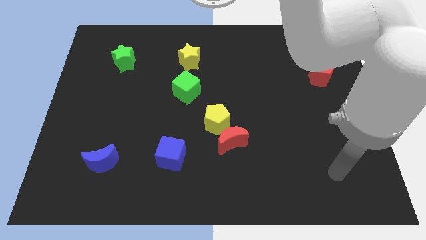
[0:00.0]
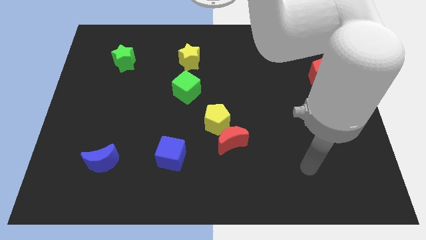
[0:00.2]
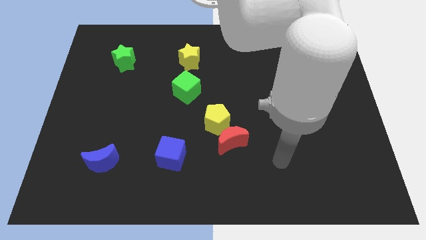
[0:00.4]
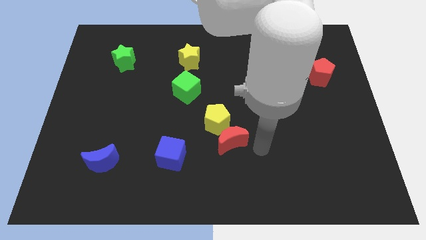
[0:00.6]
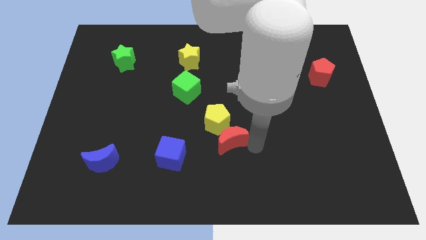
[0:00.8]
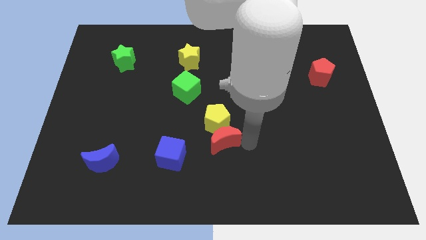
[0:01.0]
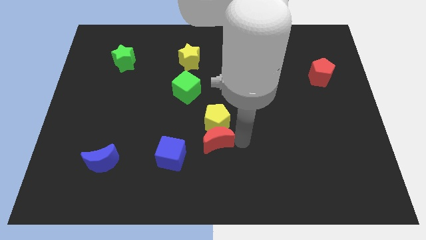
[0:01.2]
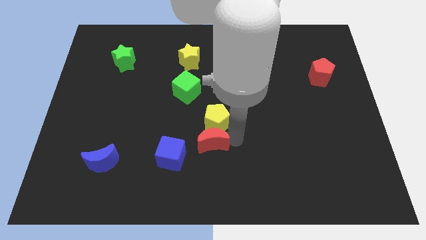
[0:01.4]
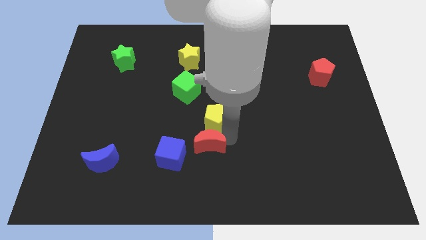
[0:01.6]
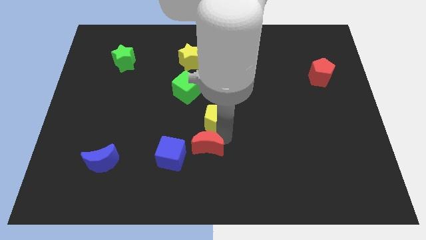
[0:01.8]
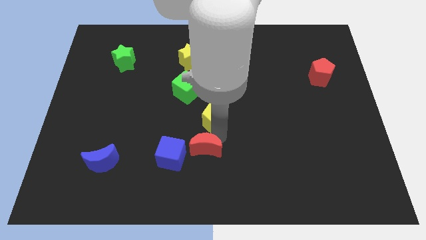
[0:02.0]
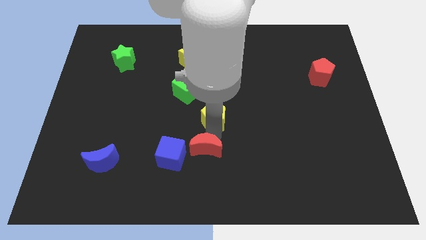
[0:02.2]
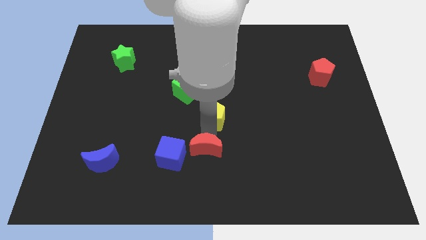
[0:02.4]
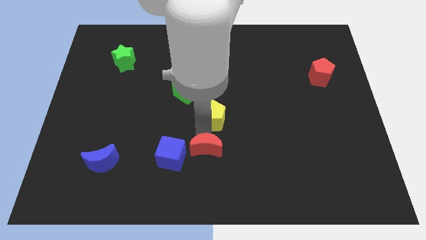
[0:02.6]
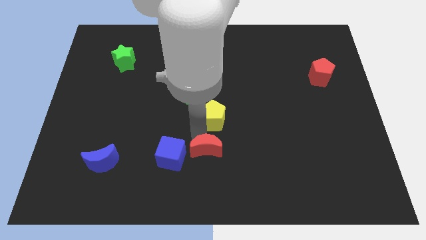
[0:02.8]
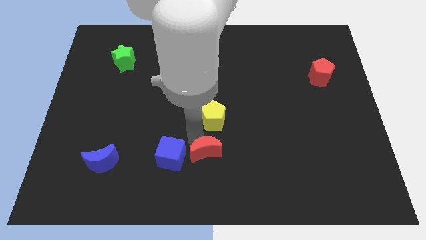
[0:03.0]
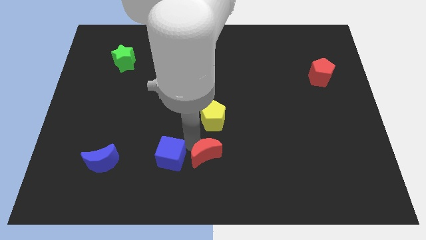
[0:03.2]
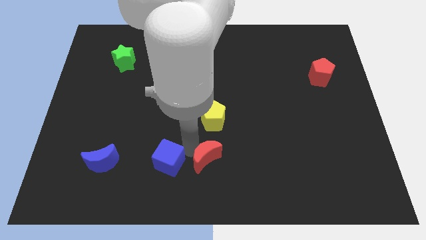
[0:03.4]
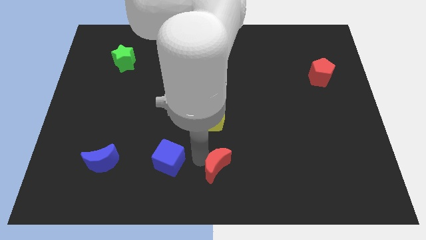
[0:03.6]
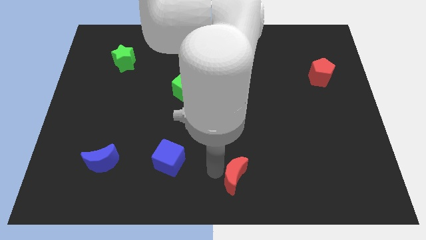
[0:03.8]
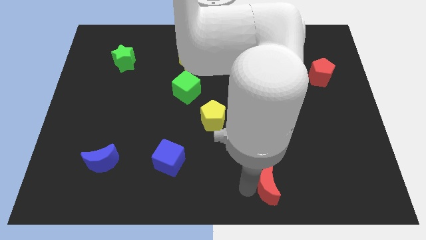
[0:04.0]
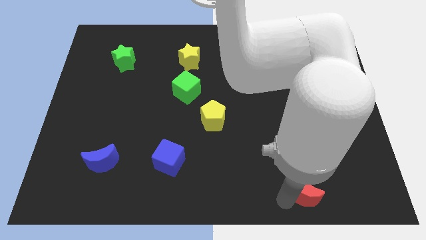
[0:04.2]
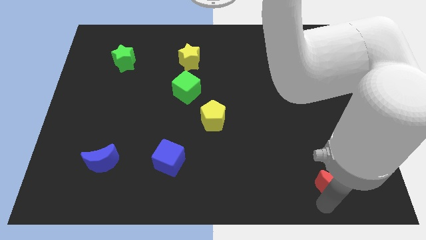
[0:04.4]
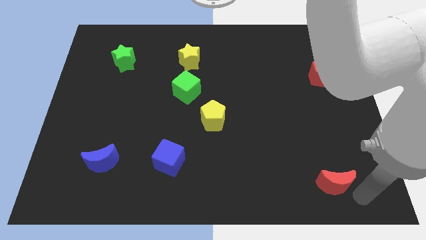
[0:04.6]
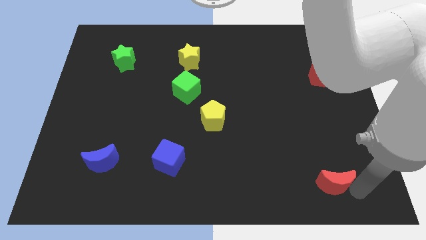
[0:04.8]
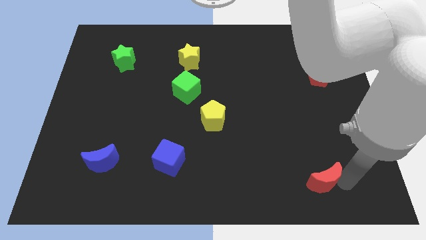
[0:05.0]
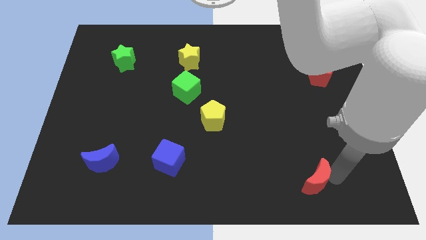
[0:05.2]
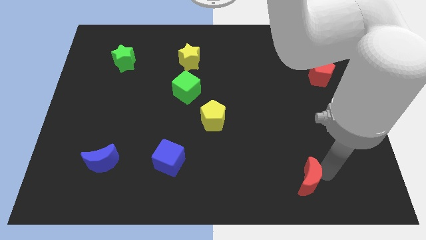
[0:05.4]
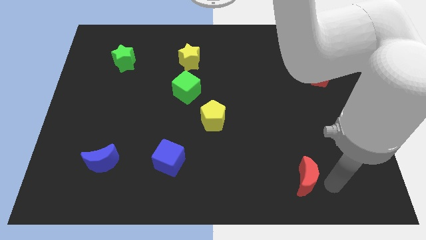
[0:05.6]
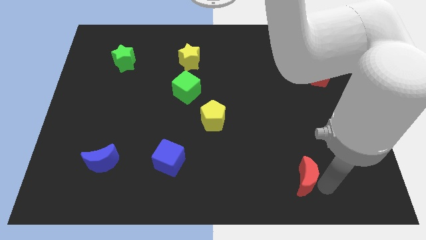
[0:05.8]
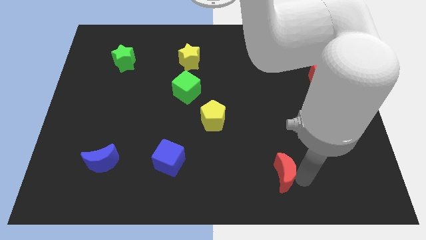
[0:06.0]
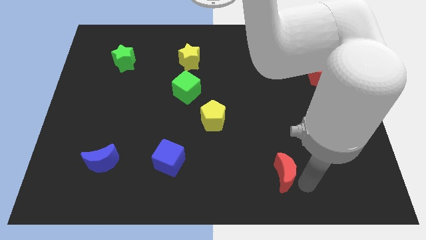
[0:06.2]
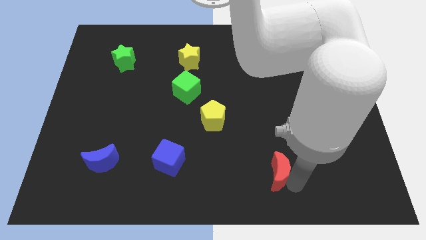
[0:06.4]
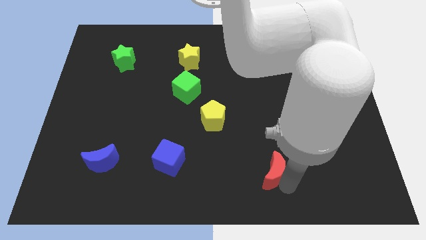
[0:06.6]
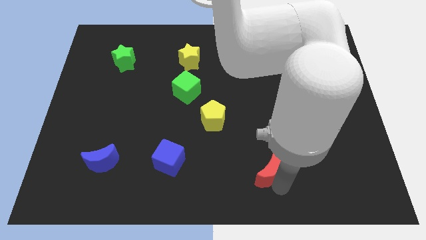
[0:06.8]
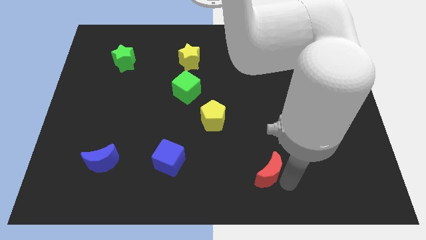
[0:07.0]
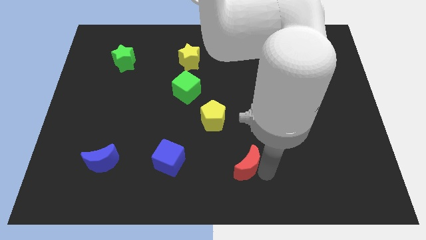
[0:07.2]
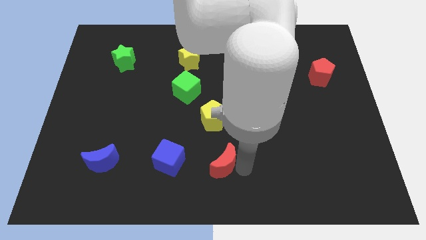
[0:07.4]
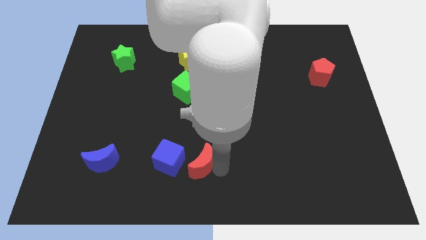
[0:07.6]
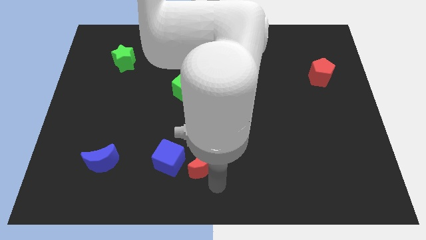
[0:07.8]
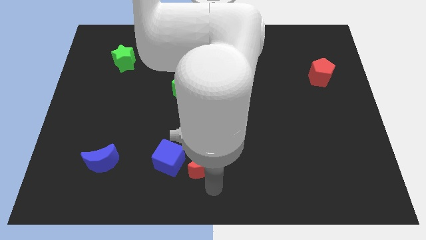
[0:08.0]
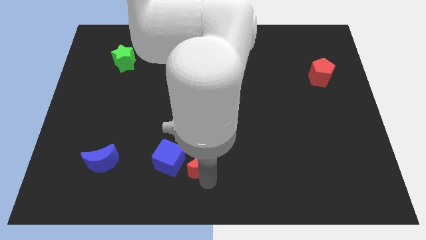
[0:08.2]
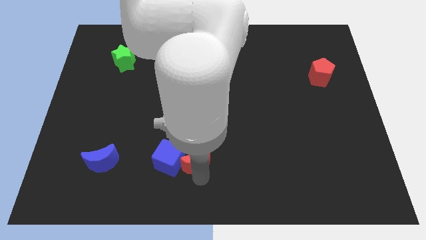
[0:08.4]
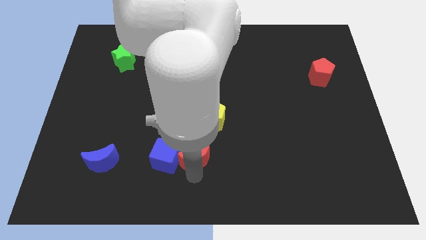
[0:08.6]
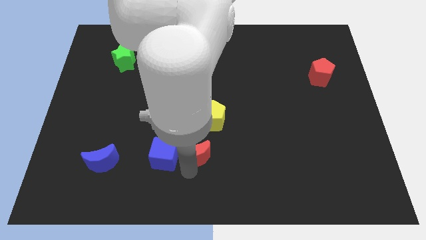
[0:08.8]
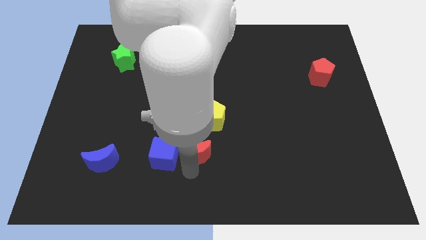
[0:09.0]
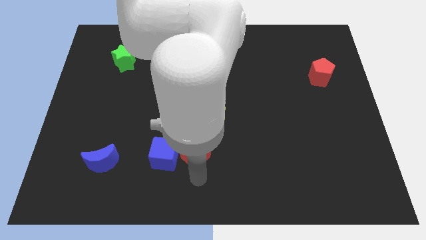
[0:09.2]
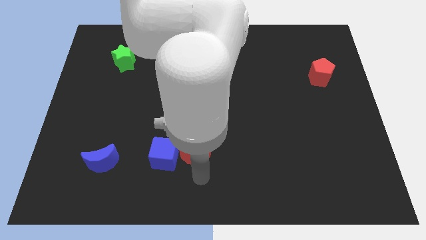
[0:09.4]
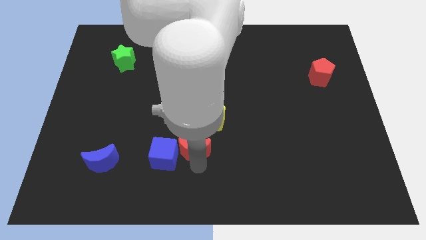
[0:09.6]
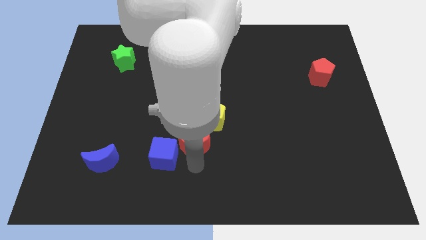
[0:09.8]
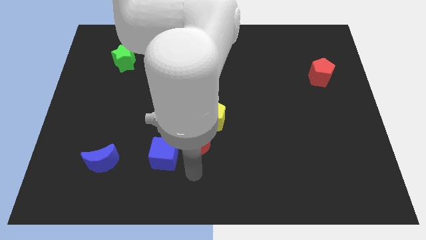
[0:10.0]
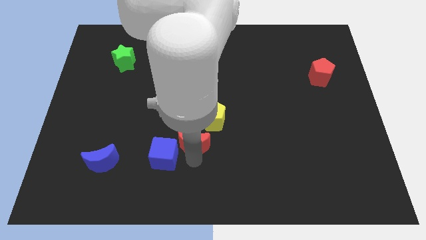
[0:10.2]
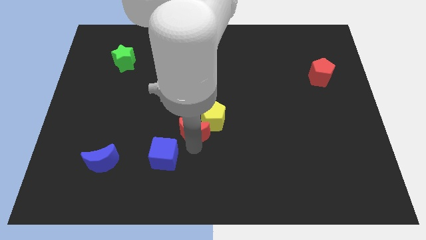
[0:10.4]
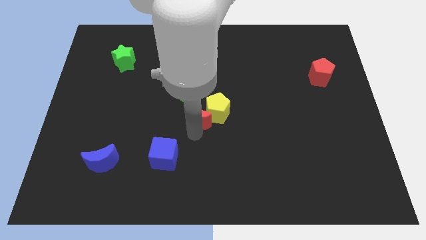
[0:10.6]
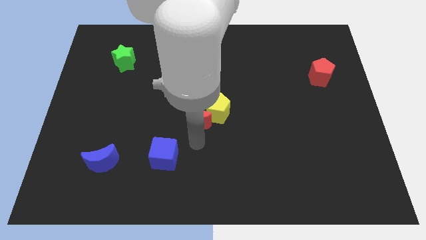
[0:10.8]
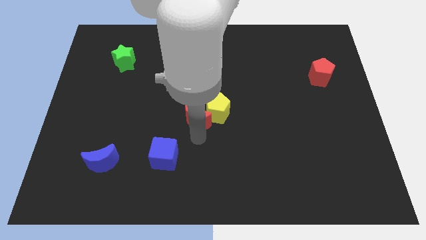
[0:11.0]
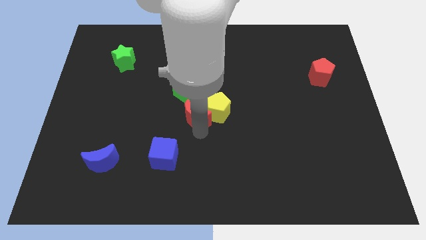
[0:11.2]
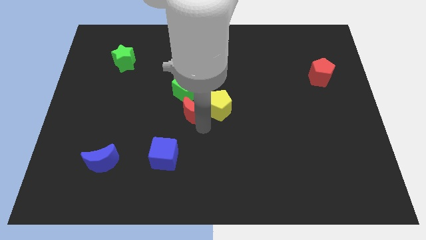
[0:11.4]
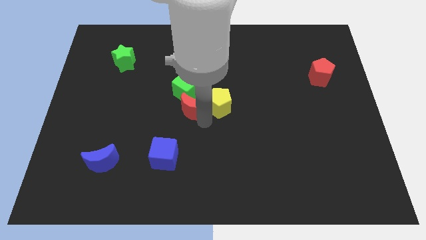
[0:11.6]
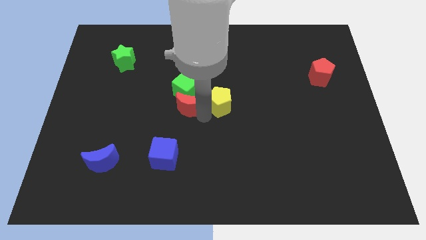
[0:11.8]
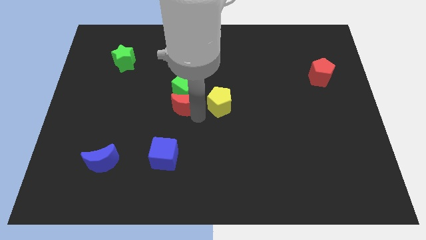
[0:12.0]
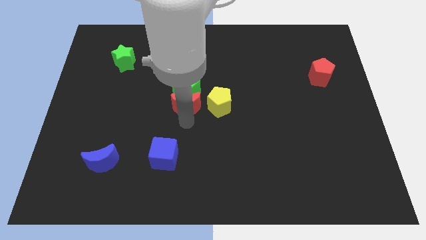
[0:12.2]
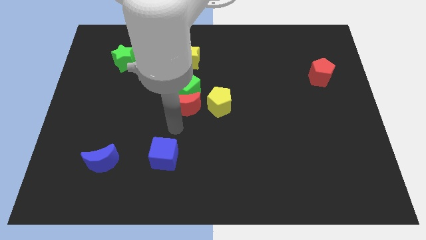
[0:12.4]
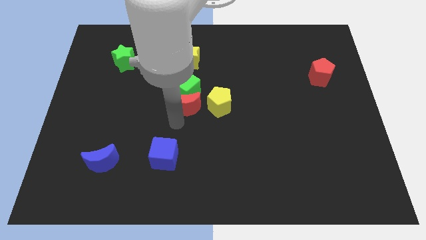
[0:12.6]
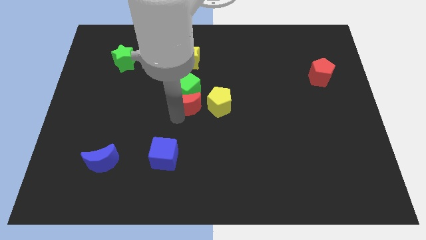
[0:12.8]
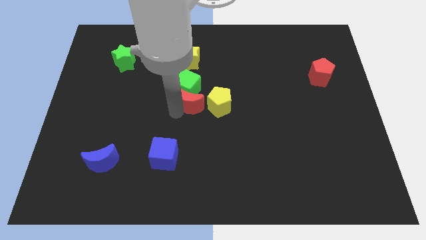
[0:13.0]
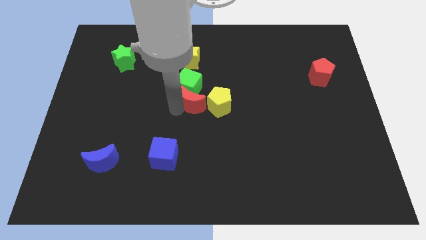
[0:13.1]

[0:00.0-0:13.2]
slide the red moon diagonally up and to the left of the yellow pentagon

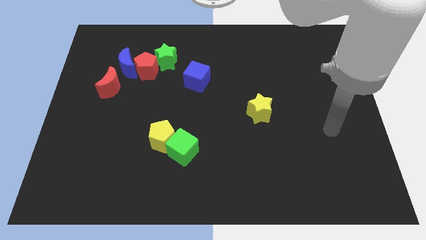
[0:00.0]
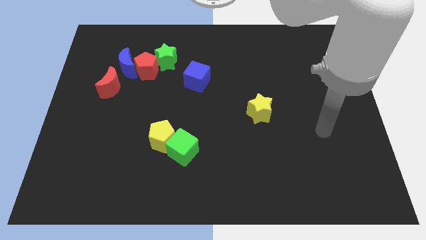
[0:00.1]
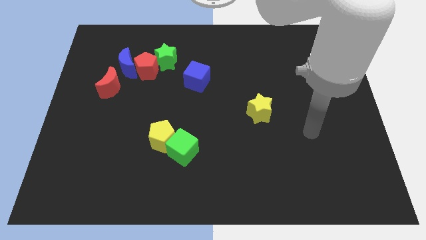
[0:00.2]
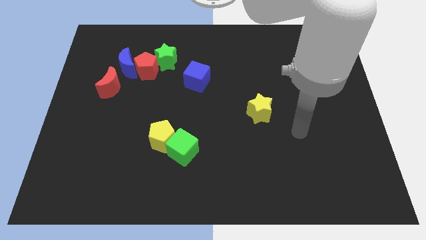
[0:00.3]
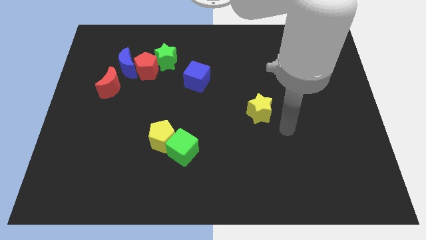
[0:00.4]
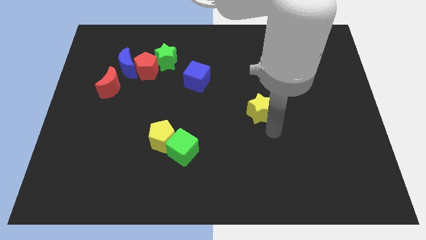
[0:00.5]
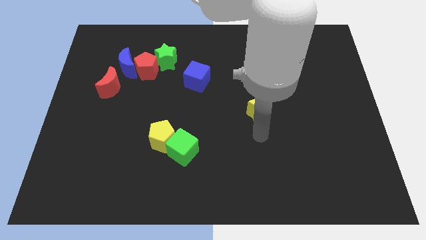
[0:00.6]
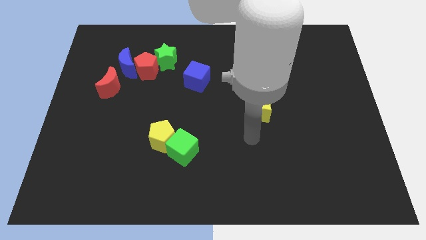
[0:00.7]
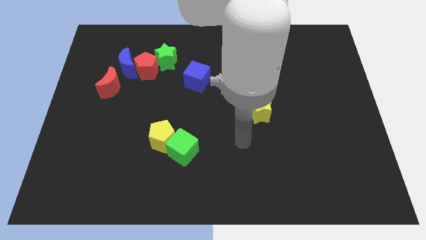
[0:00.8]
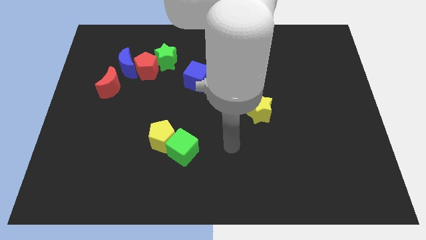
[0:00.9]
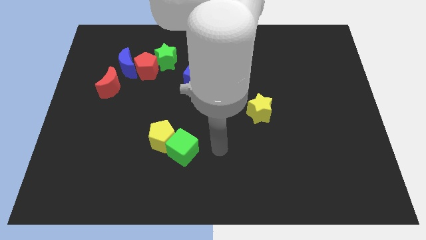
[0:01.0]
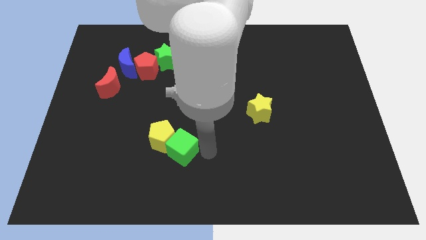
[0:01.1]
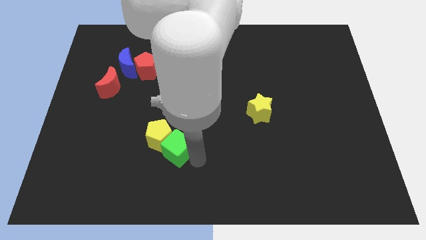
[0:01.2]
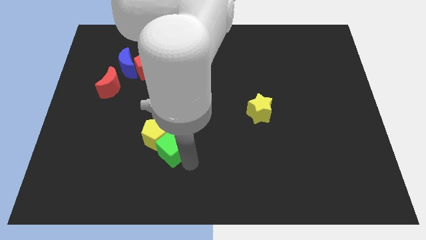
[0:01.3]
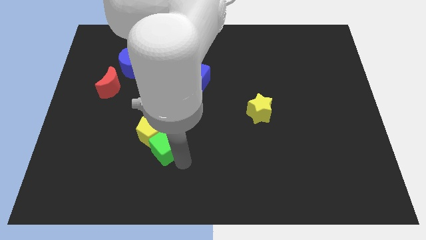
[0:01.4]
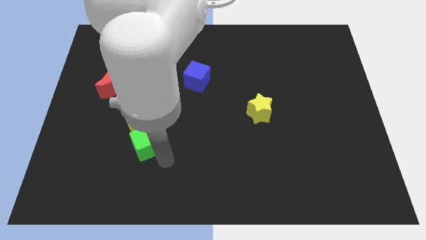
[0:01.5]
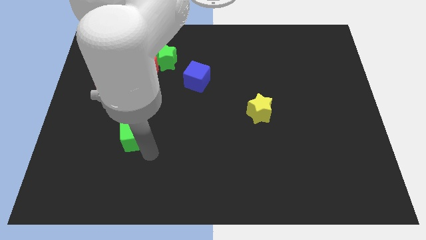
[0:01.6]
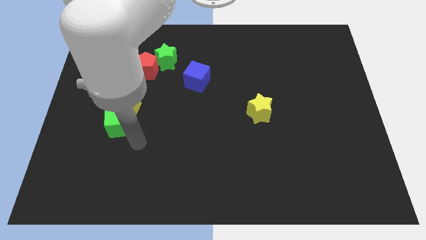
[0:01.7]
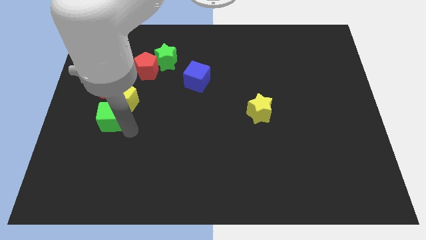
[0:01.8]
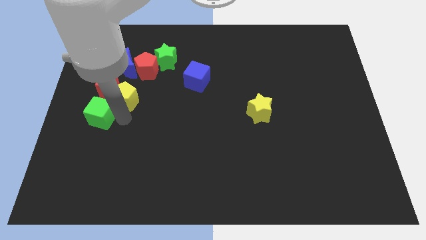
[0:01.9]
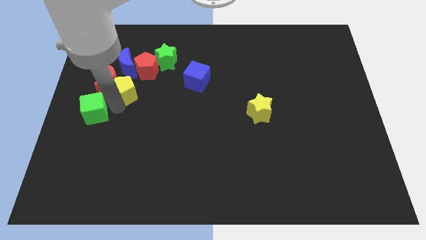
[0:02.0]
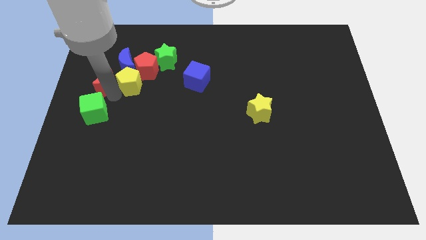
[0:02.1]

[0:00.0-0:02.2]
push the yellow pentagon to the bottom right of the blue moon
